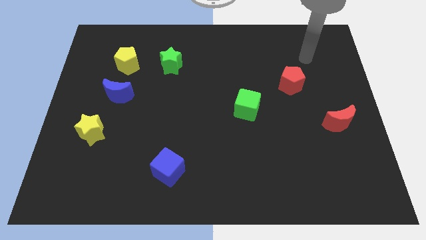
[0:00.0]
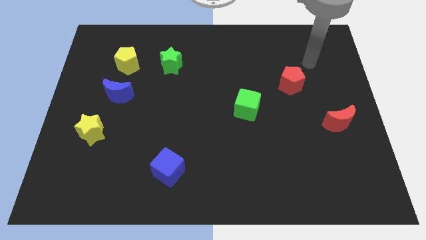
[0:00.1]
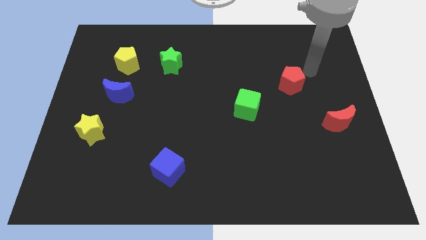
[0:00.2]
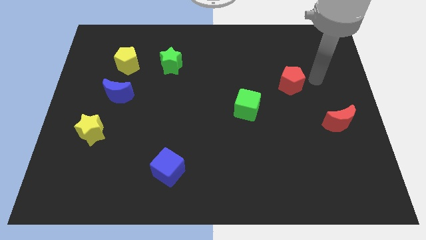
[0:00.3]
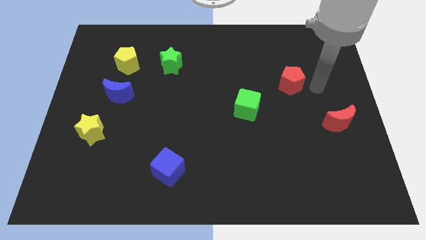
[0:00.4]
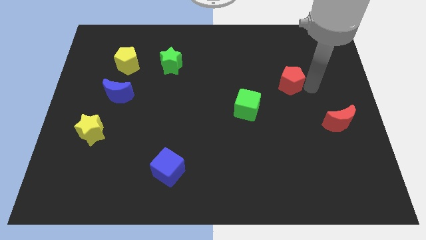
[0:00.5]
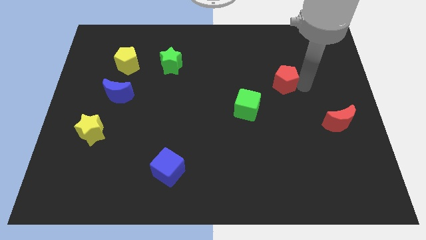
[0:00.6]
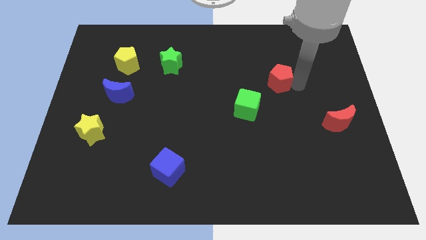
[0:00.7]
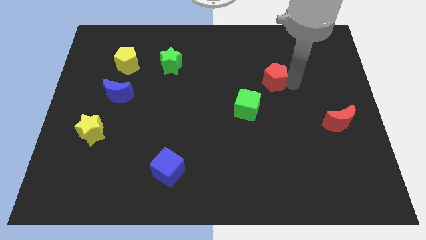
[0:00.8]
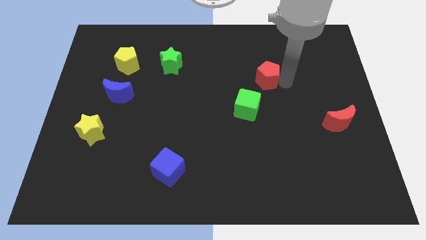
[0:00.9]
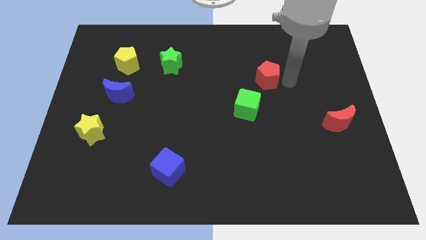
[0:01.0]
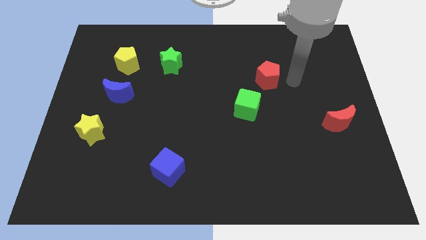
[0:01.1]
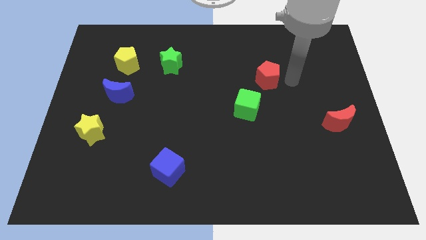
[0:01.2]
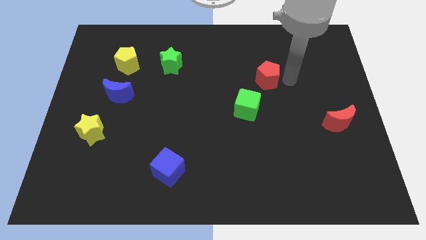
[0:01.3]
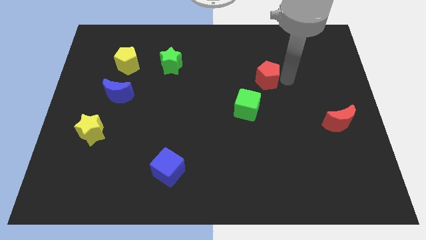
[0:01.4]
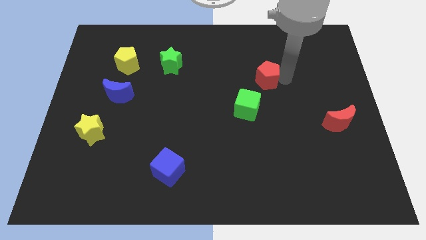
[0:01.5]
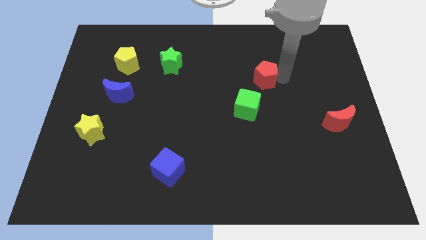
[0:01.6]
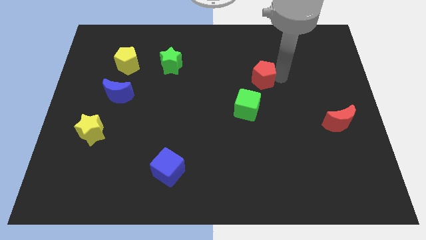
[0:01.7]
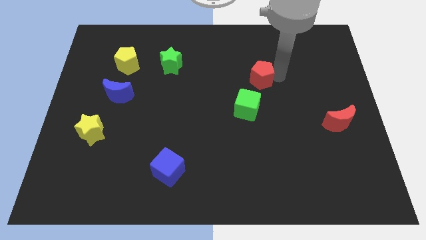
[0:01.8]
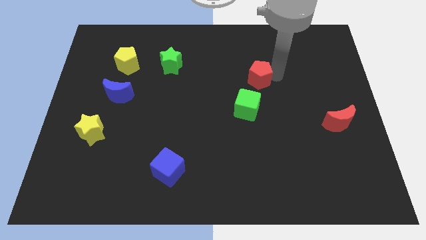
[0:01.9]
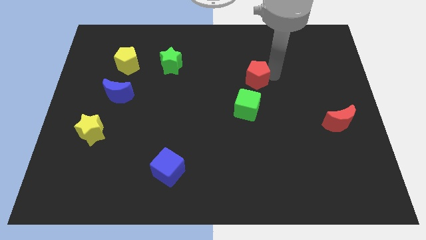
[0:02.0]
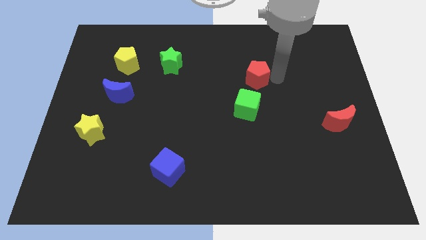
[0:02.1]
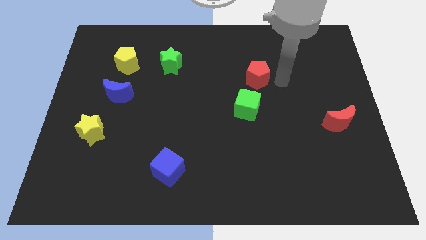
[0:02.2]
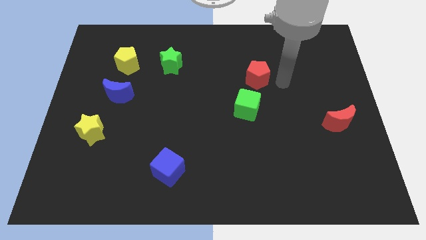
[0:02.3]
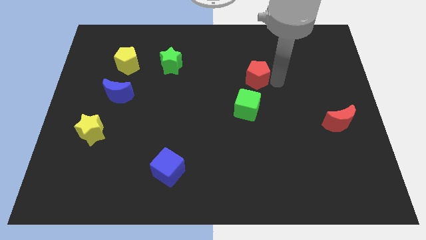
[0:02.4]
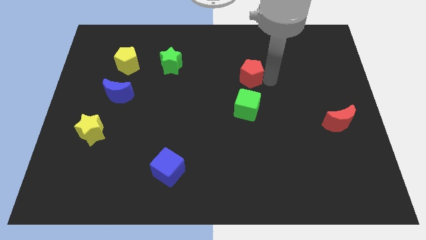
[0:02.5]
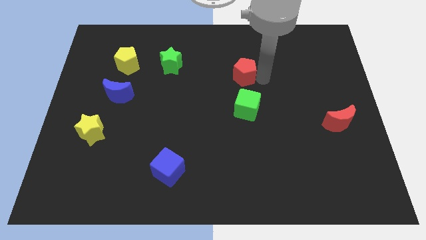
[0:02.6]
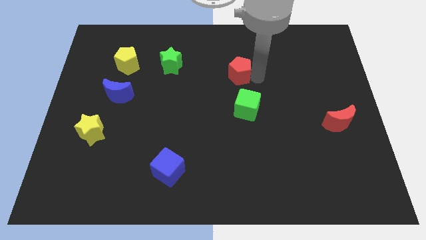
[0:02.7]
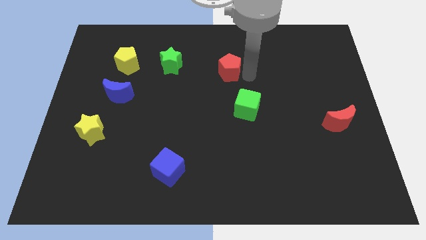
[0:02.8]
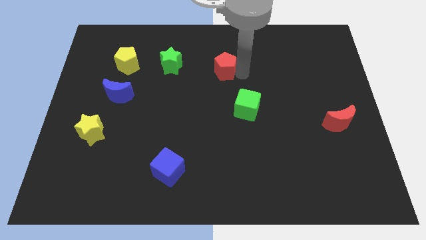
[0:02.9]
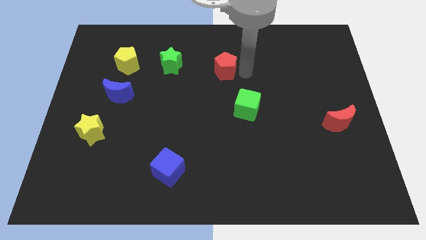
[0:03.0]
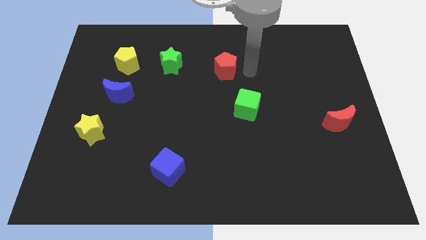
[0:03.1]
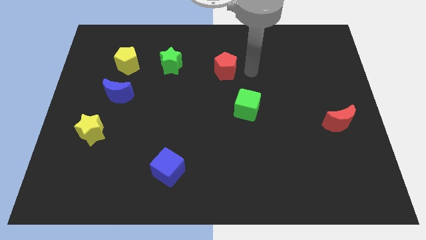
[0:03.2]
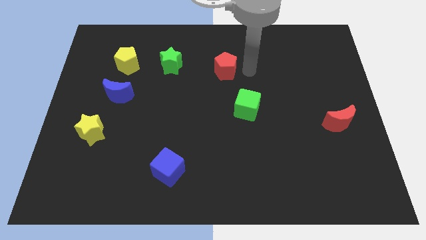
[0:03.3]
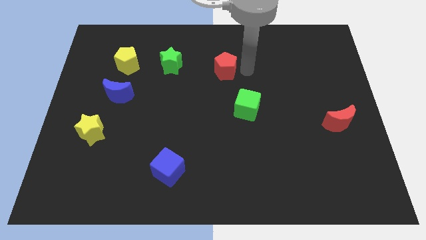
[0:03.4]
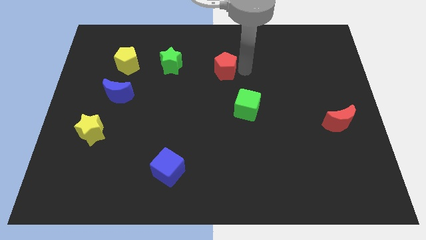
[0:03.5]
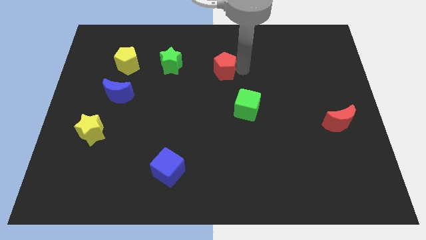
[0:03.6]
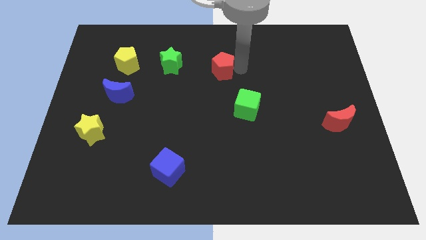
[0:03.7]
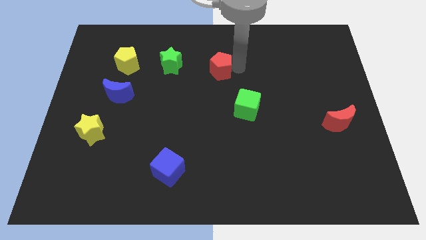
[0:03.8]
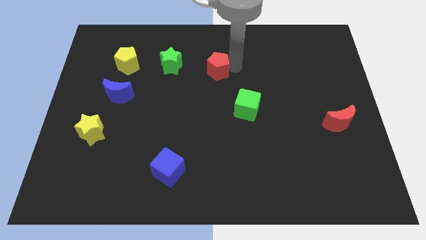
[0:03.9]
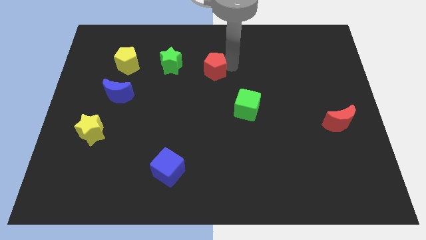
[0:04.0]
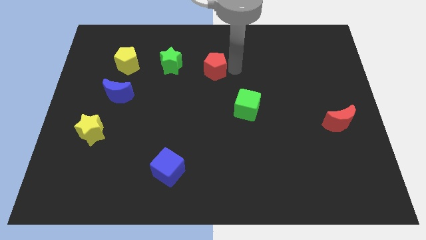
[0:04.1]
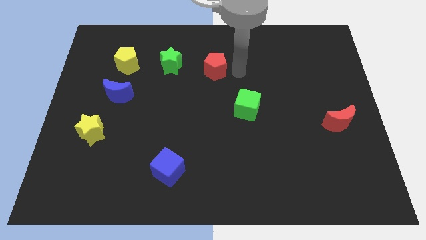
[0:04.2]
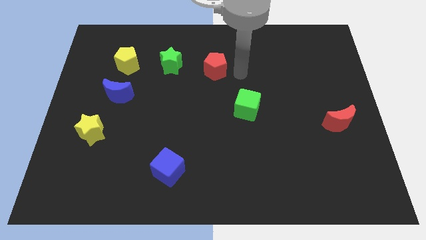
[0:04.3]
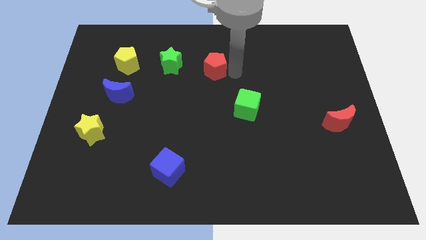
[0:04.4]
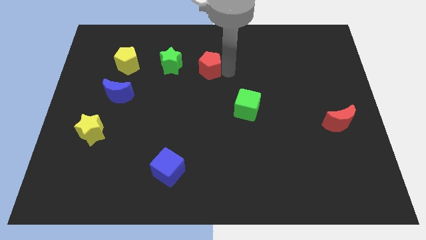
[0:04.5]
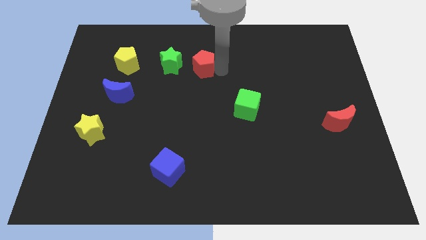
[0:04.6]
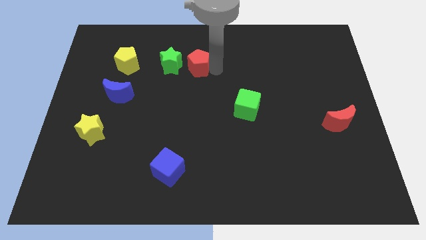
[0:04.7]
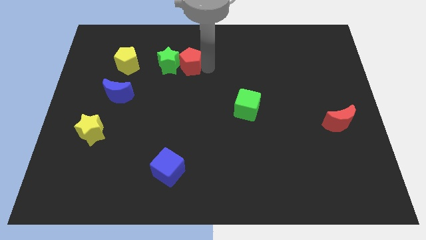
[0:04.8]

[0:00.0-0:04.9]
push the red pentagon to the right of the yellow pentagon

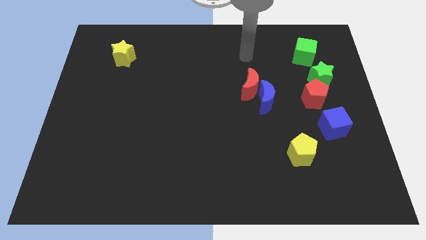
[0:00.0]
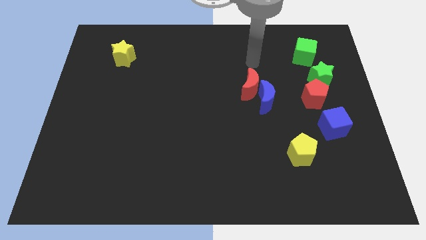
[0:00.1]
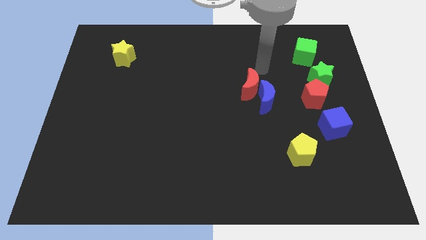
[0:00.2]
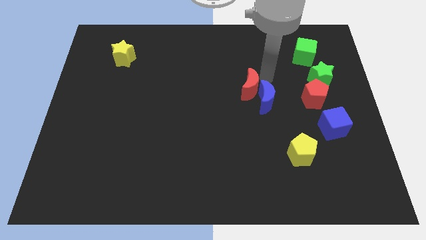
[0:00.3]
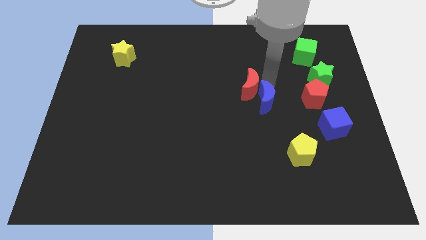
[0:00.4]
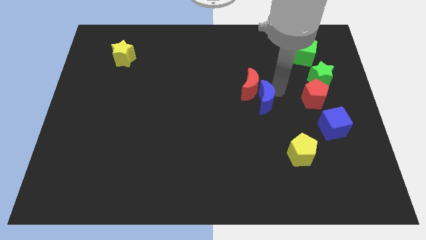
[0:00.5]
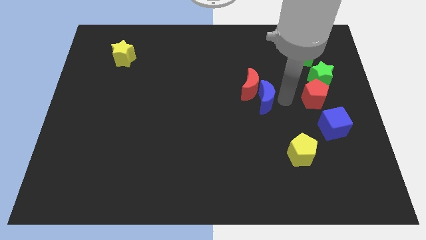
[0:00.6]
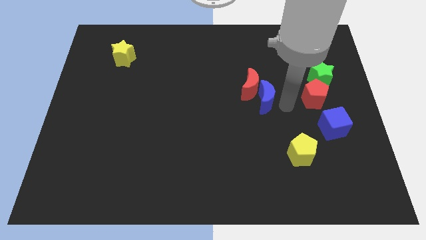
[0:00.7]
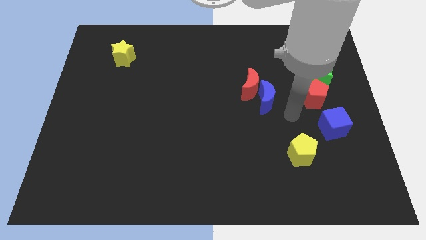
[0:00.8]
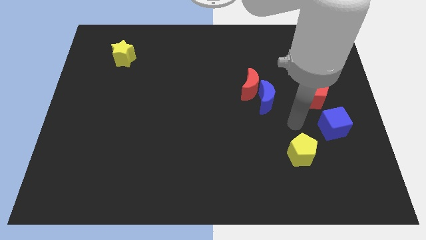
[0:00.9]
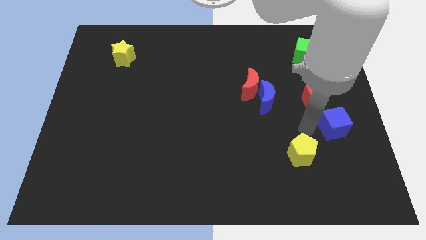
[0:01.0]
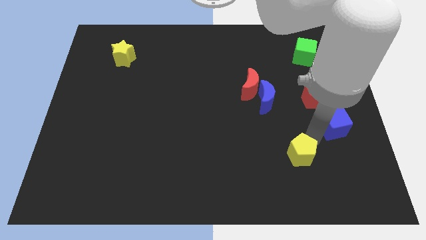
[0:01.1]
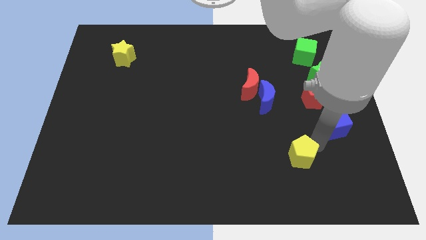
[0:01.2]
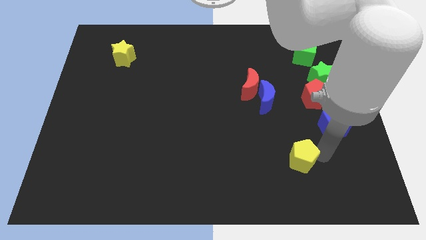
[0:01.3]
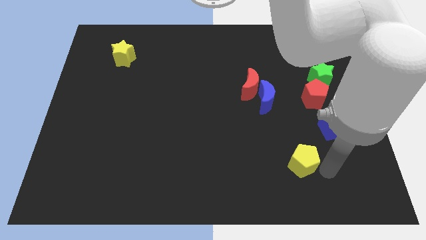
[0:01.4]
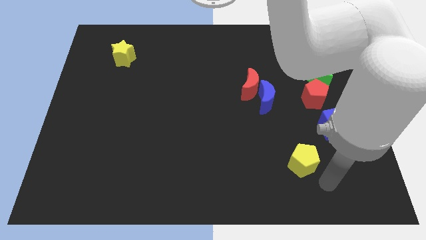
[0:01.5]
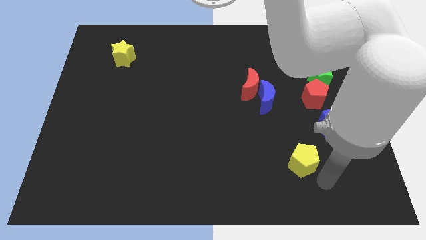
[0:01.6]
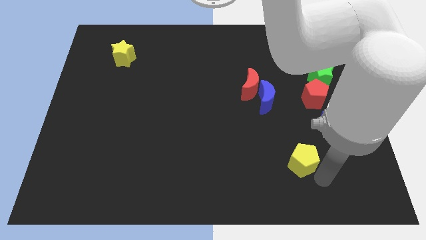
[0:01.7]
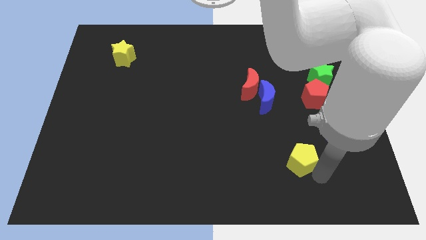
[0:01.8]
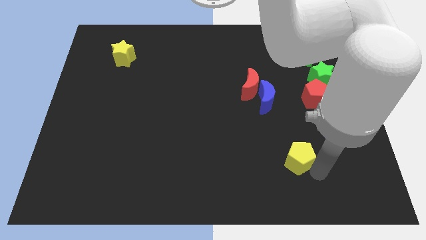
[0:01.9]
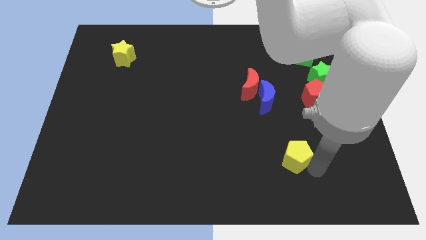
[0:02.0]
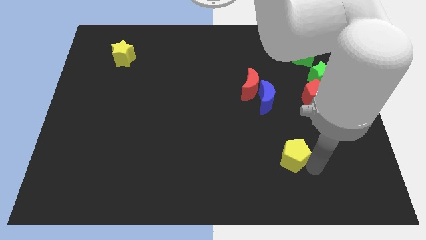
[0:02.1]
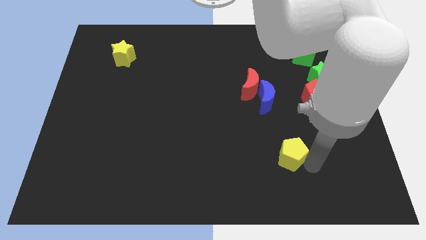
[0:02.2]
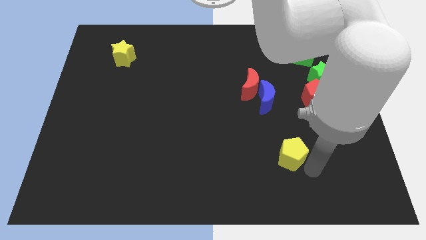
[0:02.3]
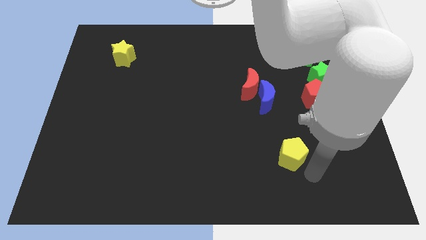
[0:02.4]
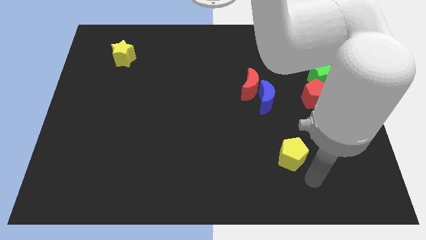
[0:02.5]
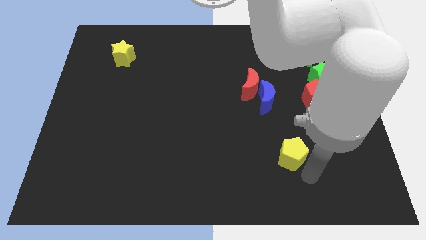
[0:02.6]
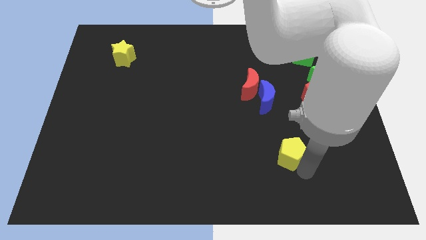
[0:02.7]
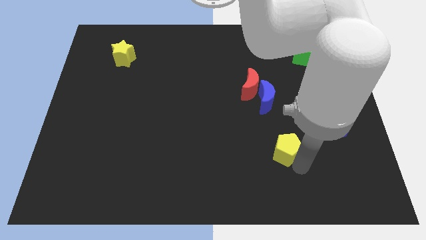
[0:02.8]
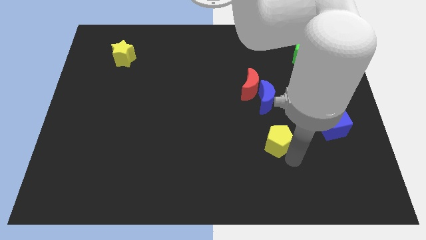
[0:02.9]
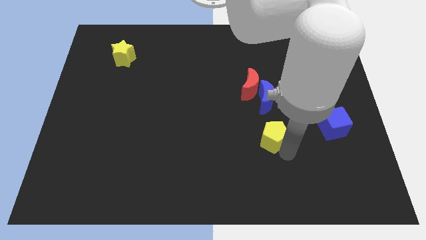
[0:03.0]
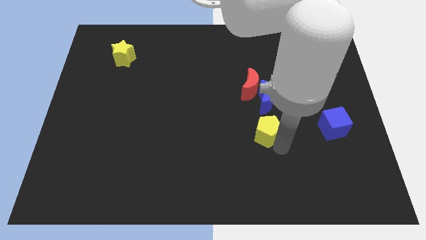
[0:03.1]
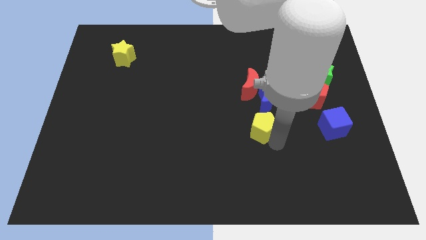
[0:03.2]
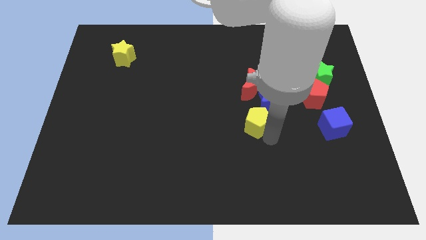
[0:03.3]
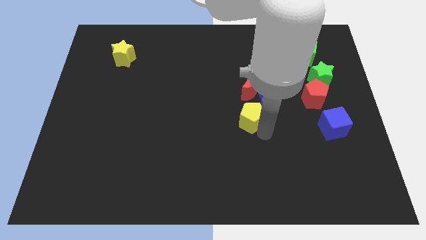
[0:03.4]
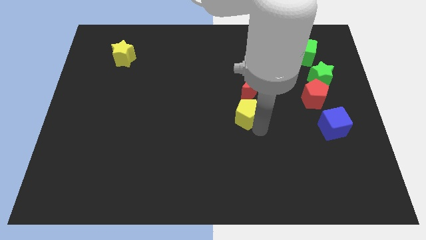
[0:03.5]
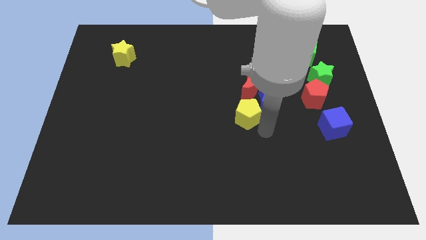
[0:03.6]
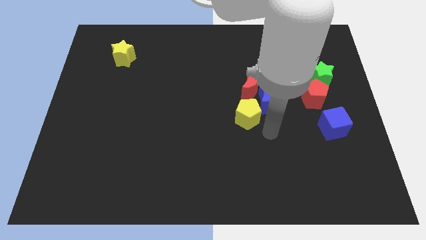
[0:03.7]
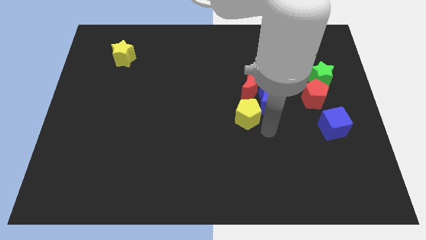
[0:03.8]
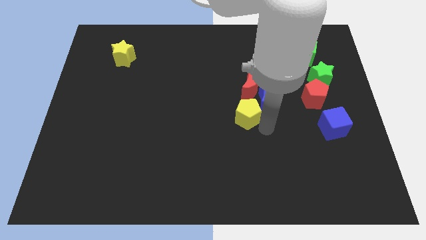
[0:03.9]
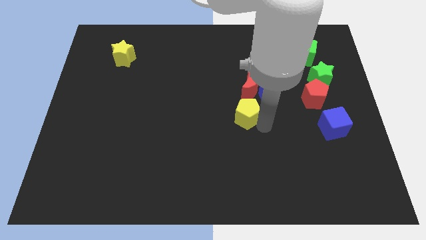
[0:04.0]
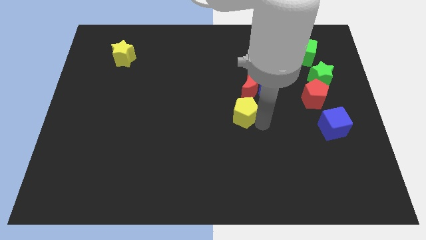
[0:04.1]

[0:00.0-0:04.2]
slide the yellow pentagon to the bottom left side of the red moon
